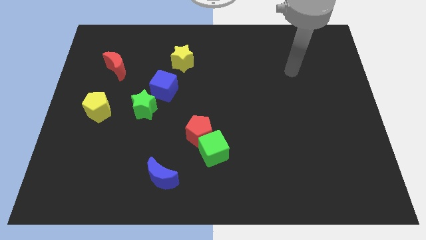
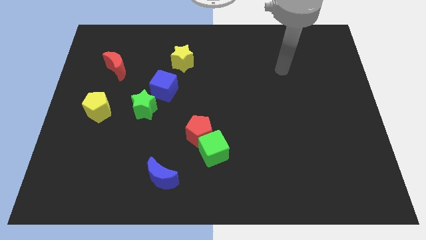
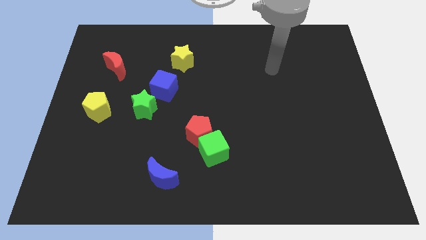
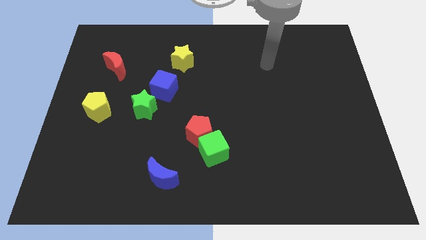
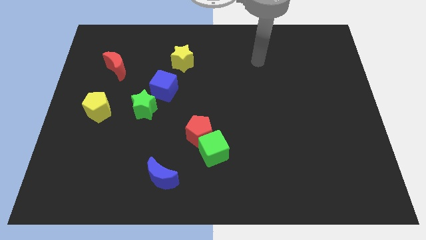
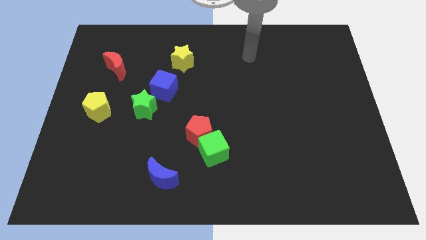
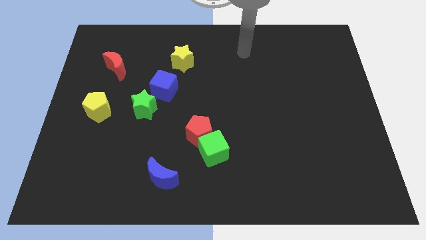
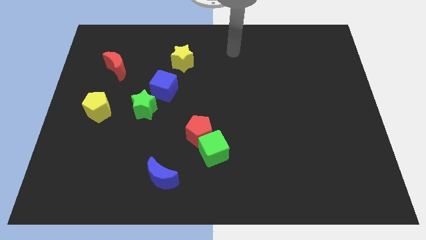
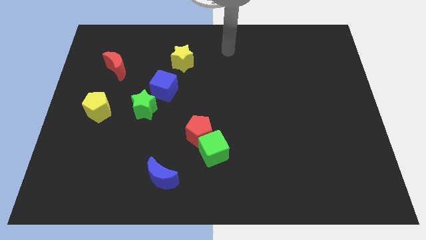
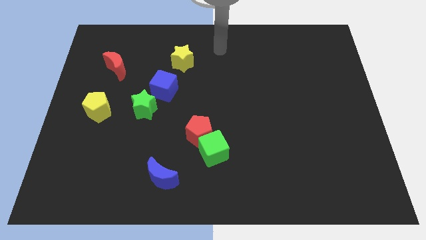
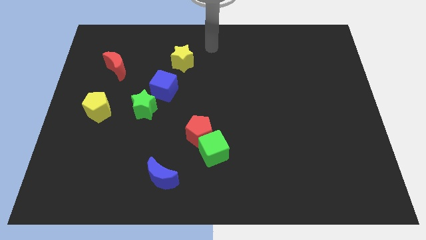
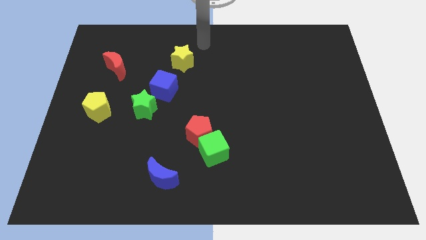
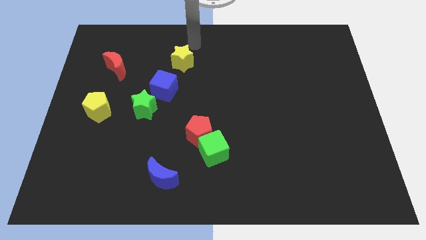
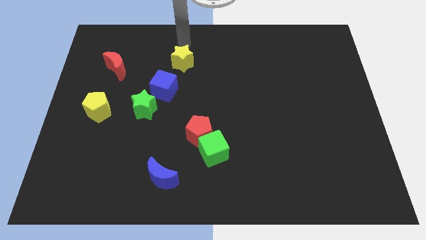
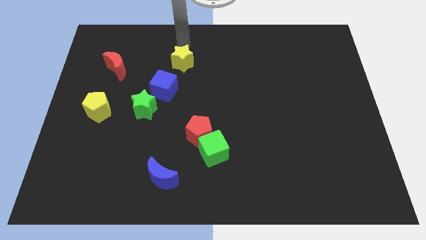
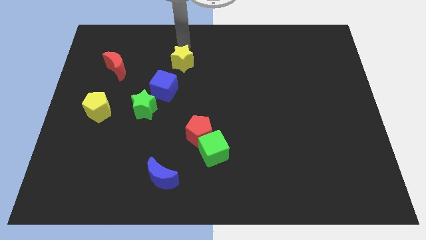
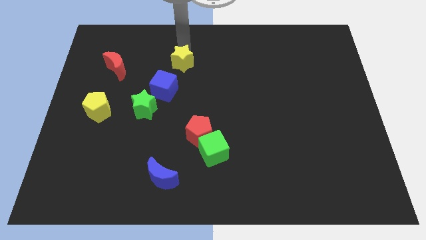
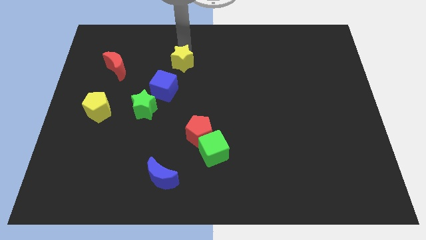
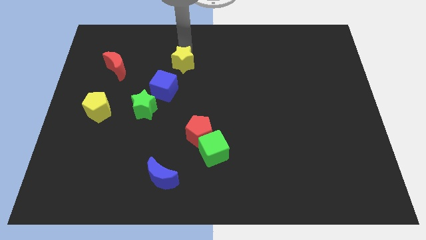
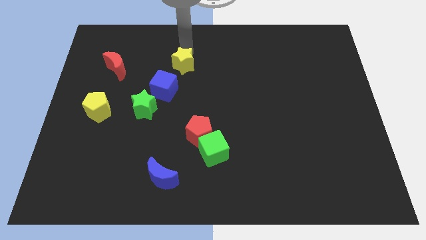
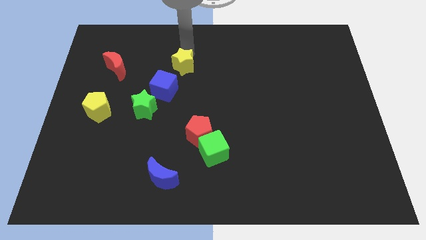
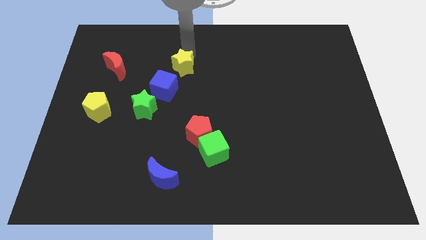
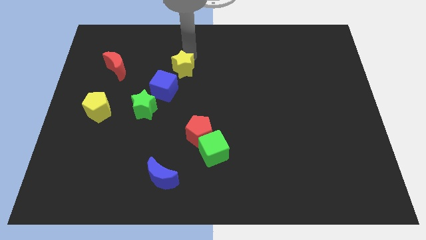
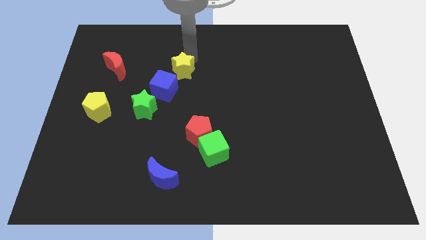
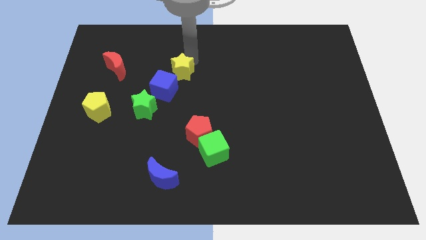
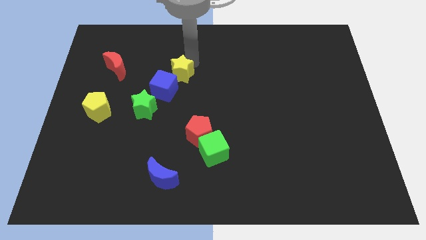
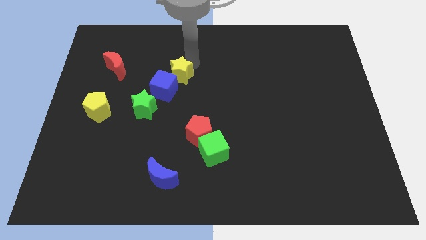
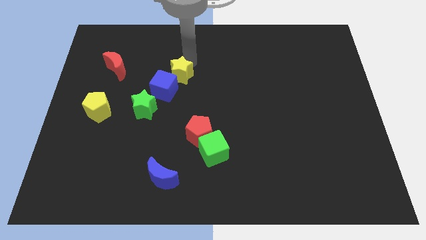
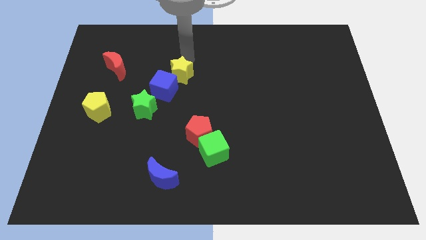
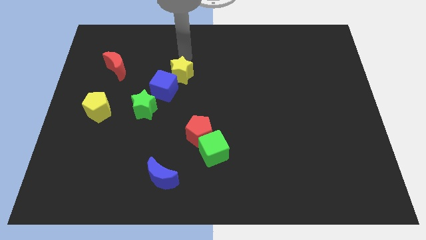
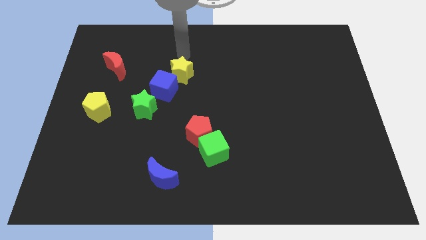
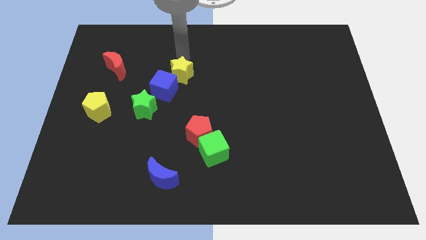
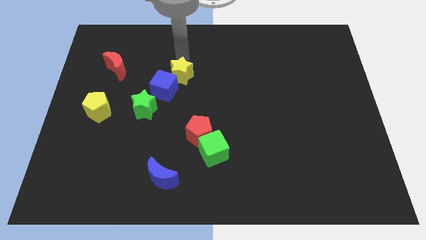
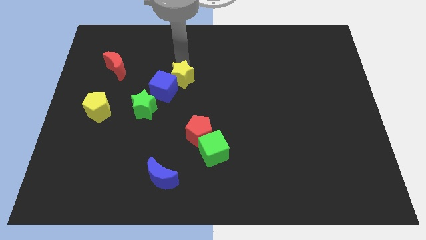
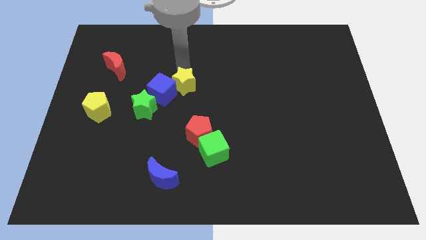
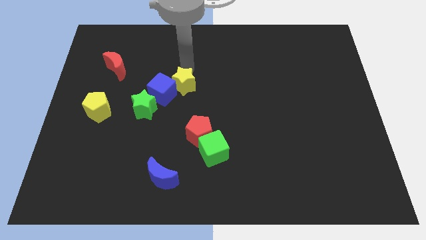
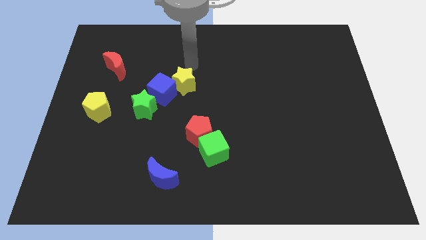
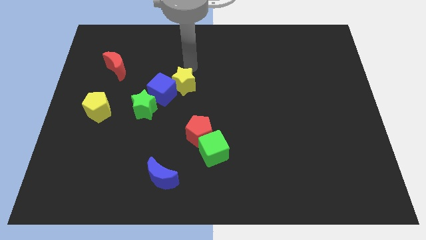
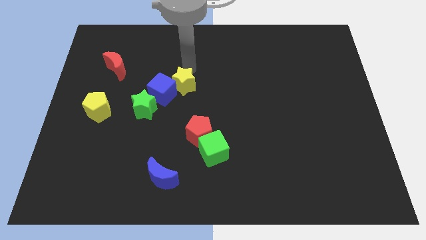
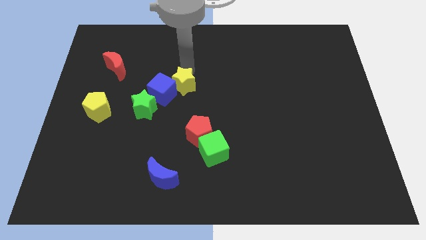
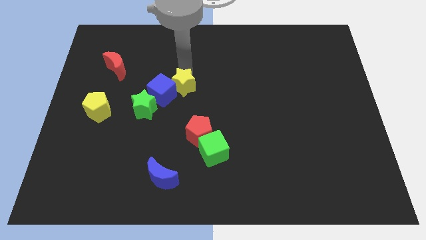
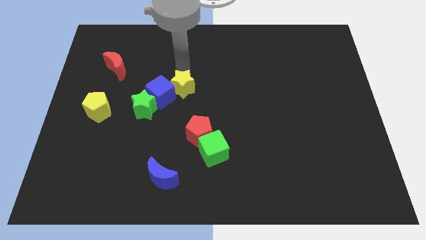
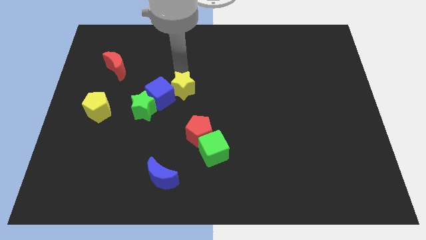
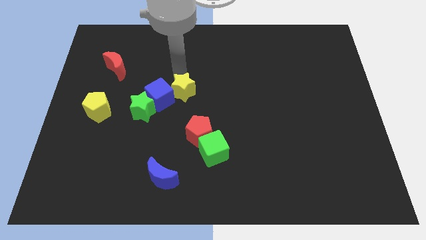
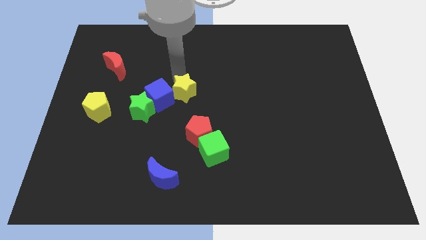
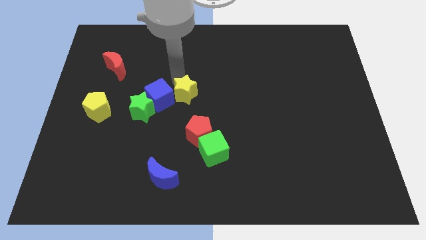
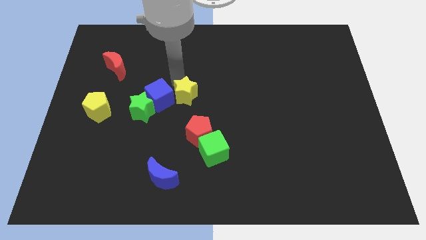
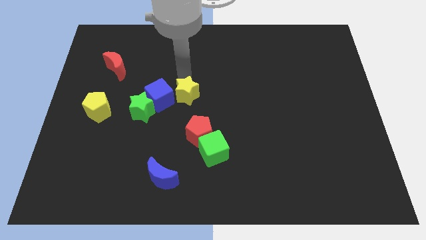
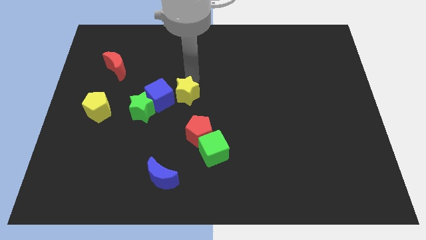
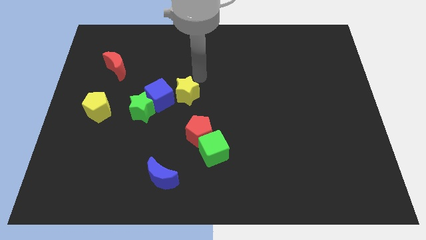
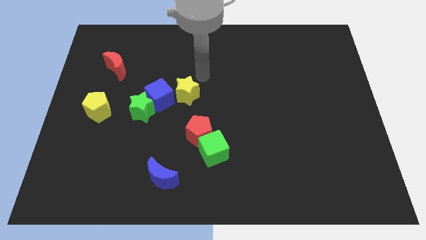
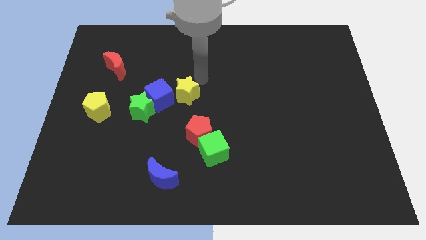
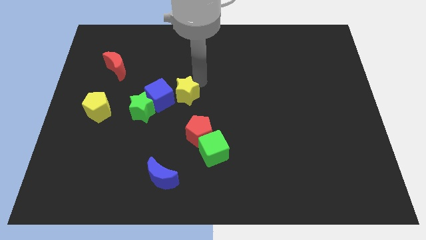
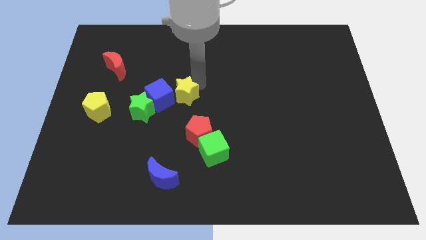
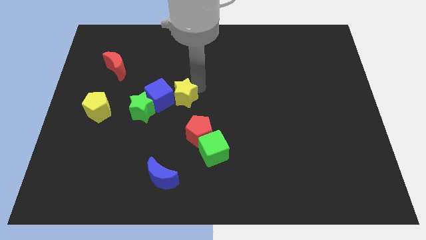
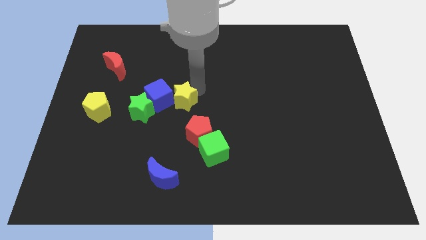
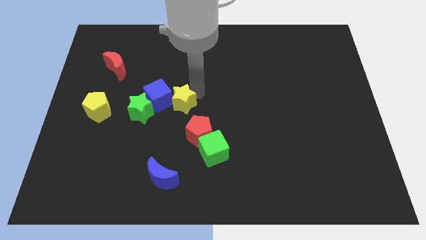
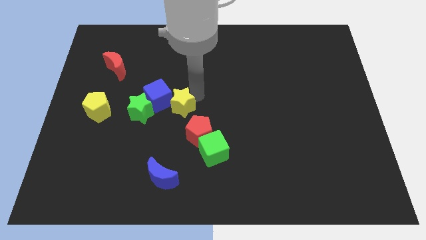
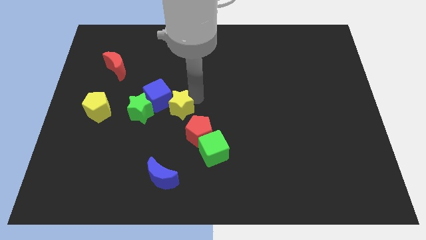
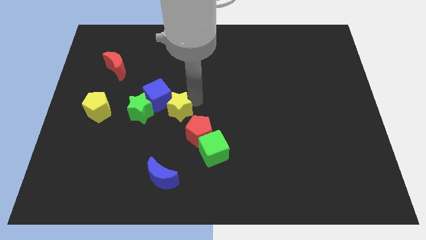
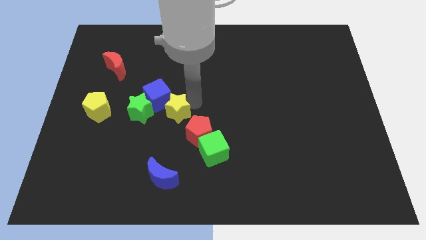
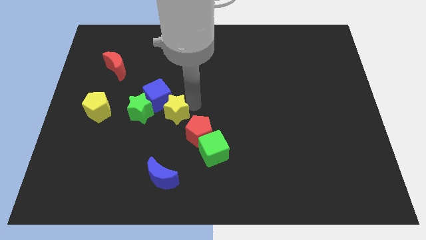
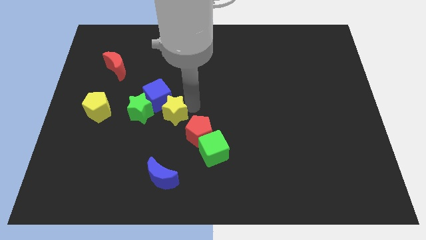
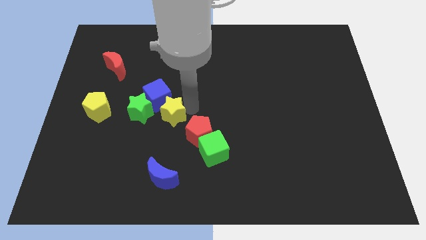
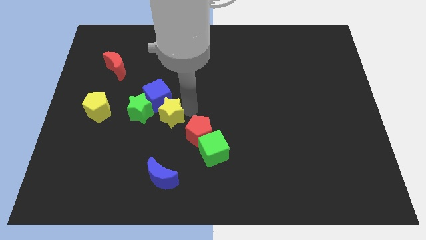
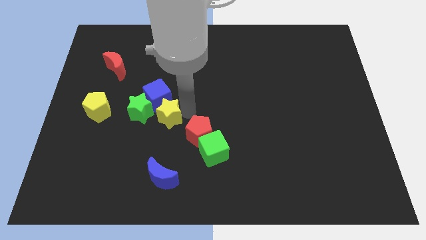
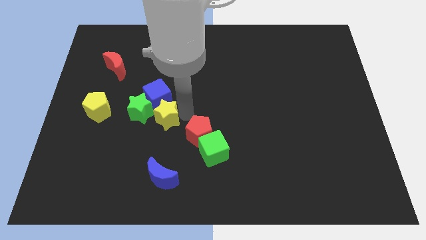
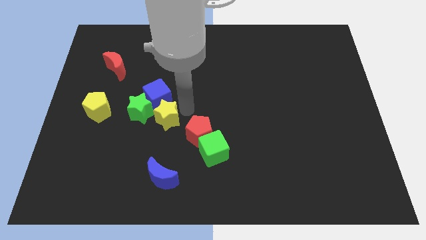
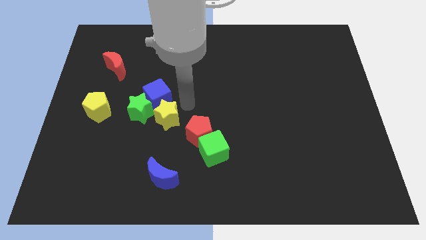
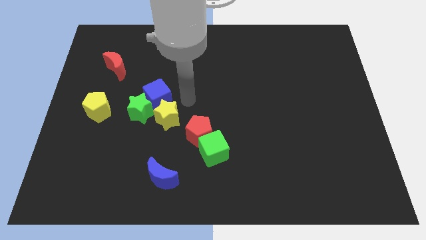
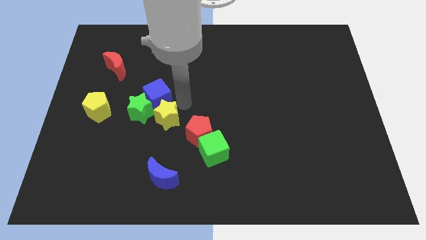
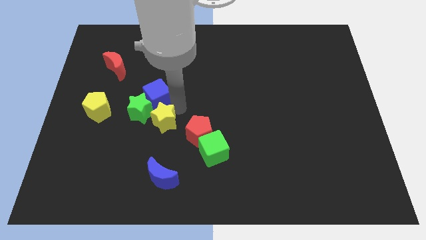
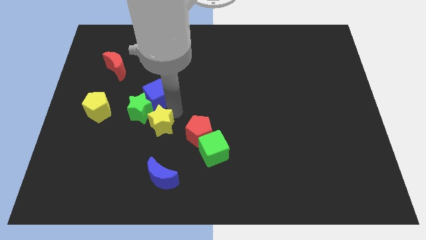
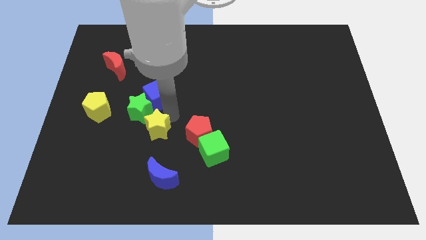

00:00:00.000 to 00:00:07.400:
slide the yellow star below the green star
